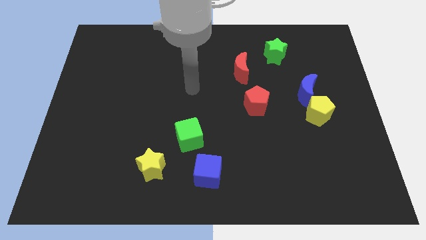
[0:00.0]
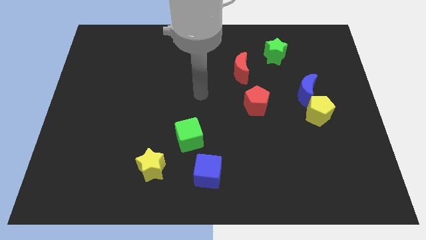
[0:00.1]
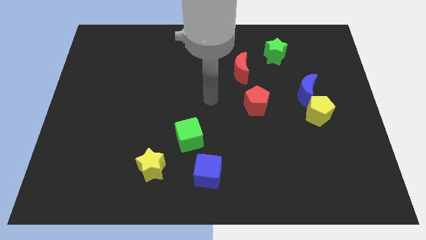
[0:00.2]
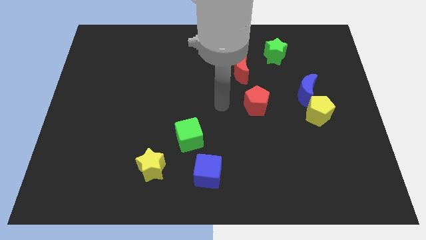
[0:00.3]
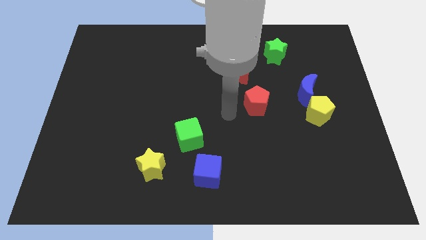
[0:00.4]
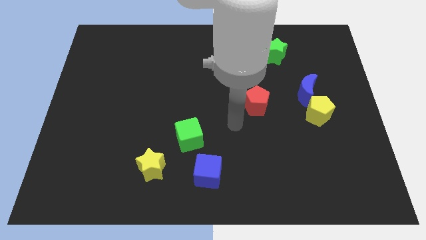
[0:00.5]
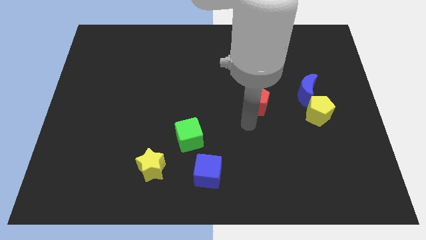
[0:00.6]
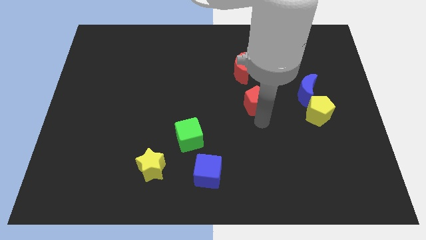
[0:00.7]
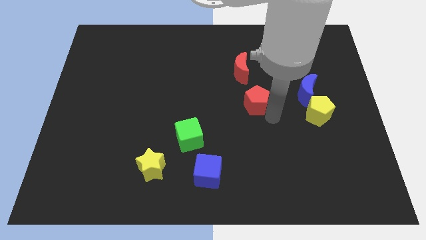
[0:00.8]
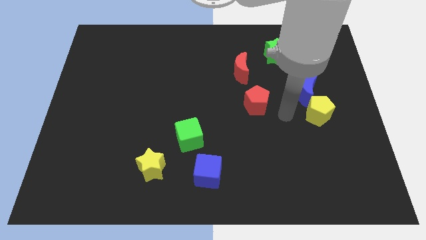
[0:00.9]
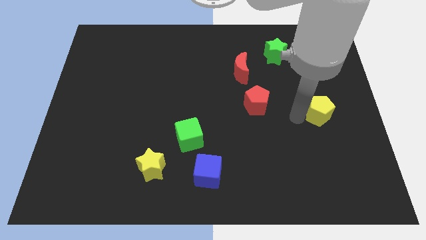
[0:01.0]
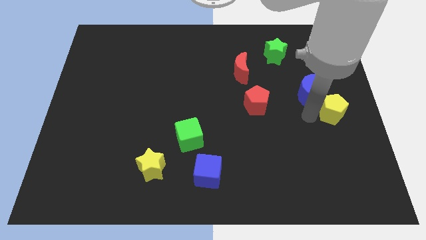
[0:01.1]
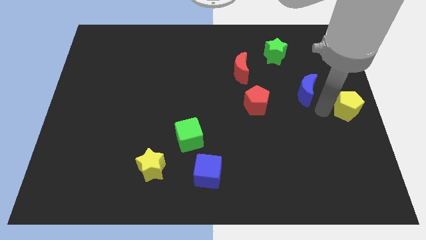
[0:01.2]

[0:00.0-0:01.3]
separate the blue moon from the yellow pentagon

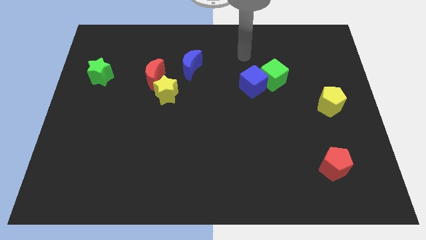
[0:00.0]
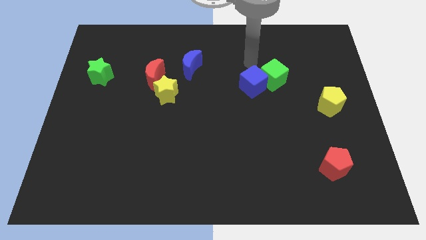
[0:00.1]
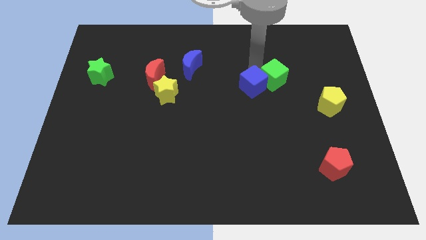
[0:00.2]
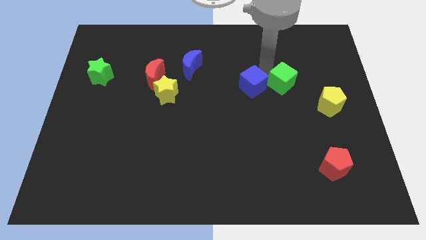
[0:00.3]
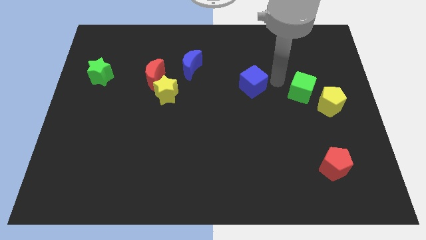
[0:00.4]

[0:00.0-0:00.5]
move the blue cube away from the green cube

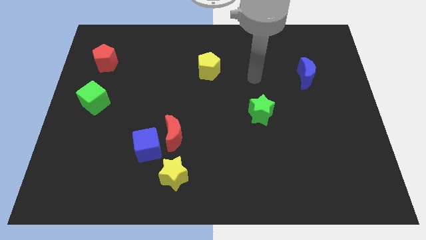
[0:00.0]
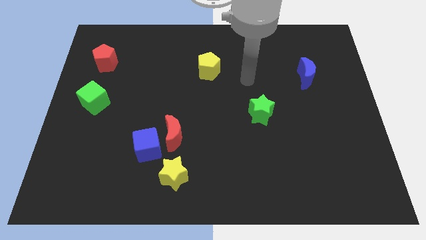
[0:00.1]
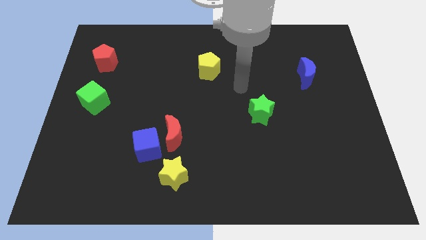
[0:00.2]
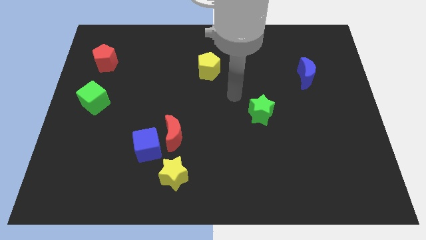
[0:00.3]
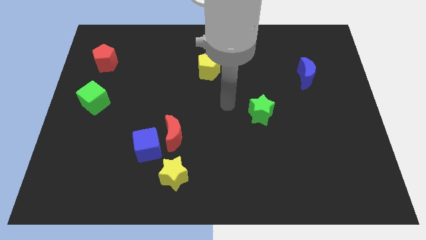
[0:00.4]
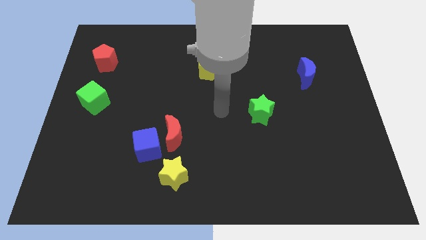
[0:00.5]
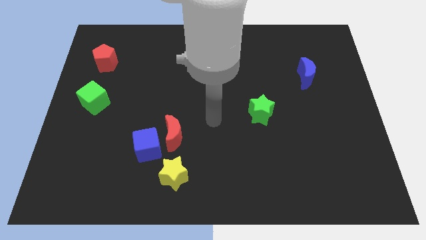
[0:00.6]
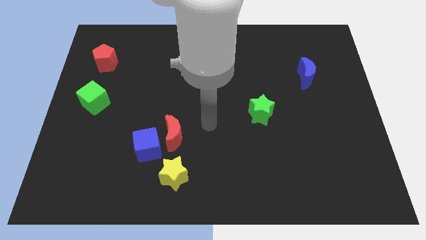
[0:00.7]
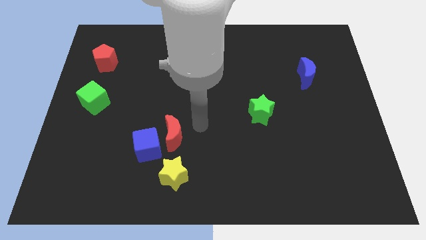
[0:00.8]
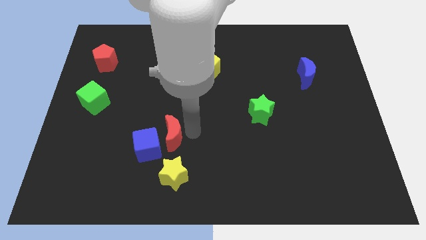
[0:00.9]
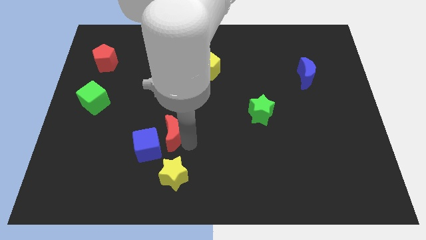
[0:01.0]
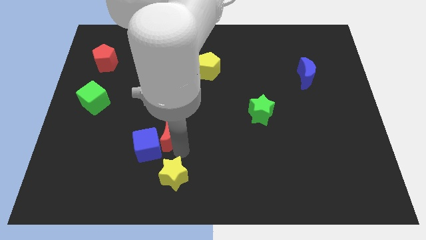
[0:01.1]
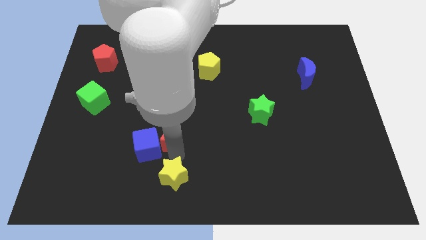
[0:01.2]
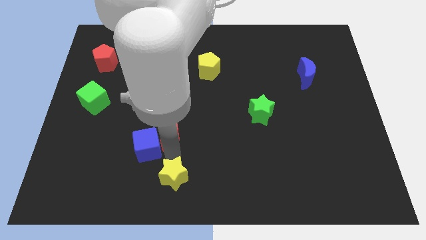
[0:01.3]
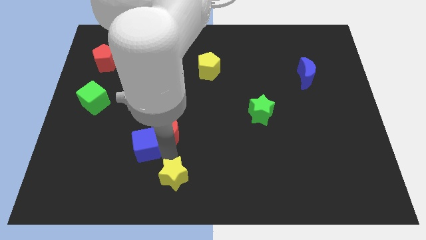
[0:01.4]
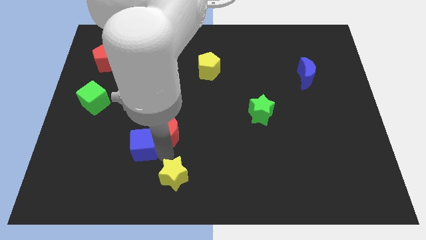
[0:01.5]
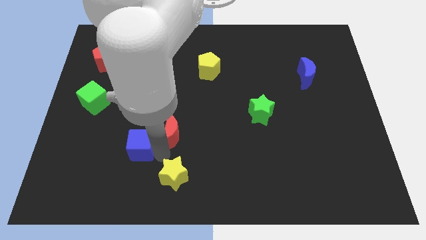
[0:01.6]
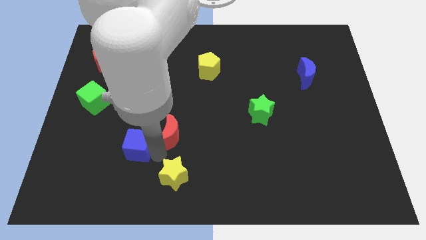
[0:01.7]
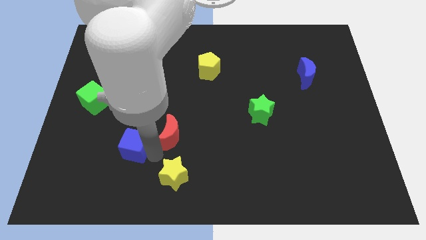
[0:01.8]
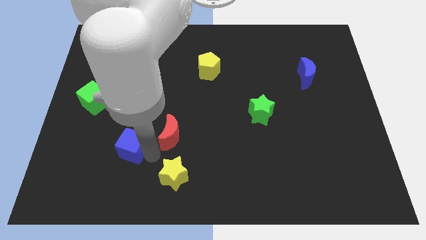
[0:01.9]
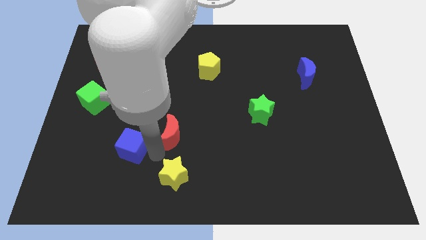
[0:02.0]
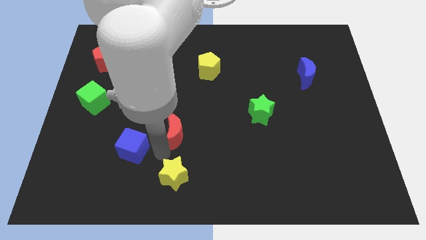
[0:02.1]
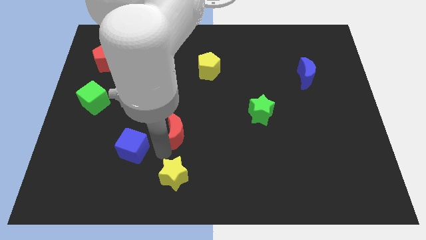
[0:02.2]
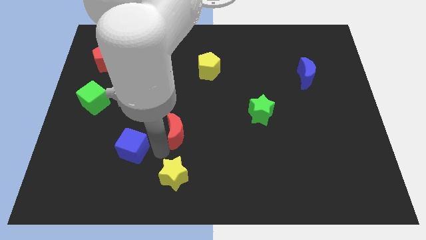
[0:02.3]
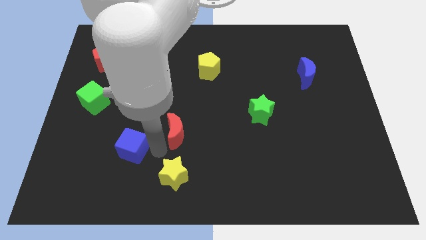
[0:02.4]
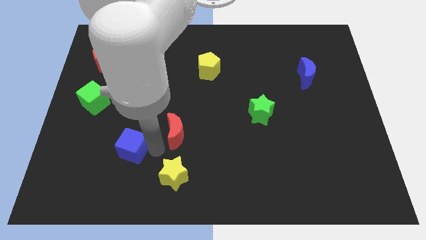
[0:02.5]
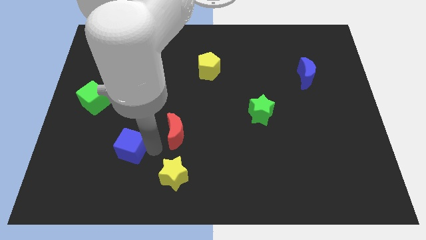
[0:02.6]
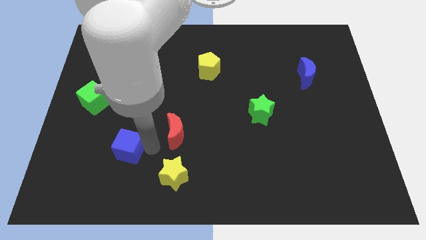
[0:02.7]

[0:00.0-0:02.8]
separate the blue cube from the red moon and yellow star

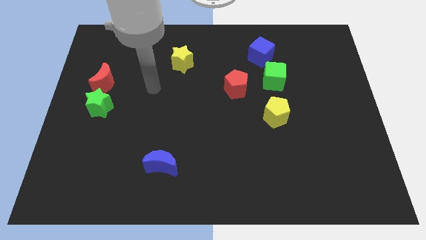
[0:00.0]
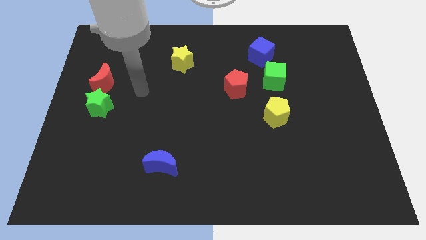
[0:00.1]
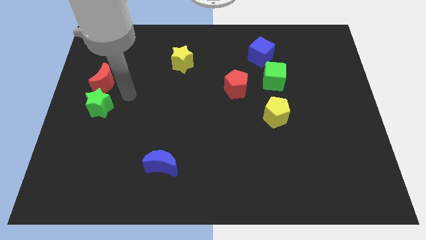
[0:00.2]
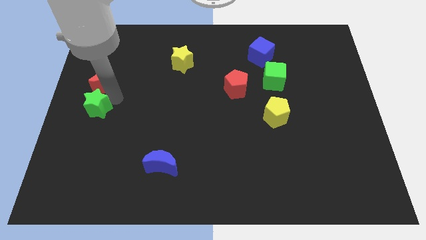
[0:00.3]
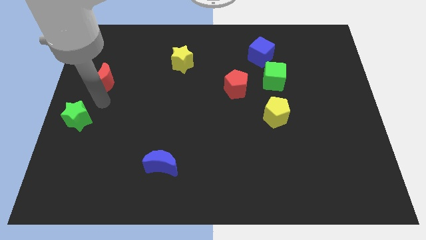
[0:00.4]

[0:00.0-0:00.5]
separate the red moon from the green star

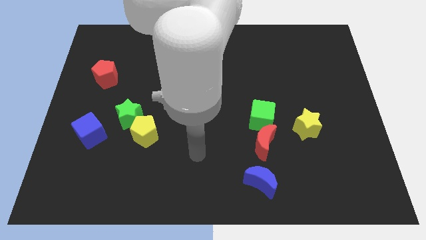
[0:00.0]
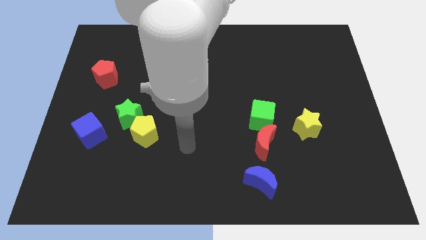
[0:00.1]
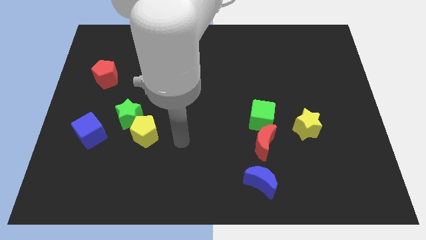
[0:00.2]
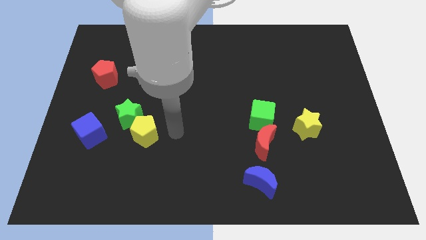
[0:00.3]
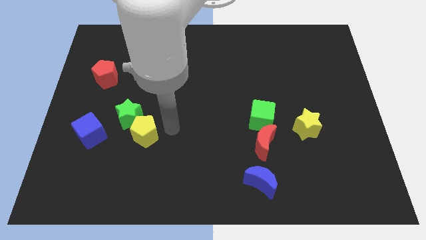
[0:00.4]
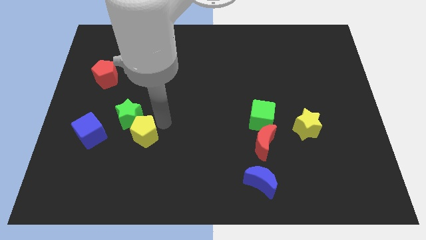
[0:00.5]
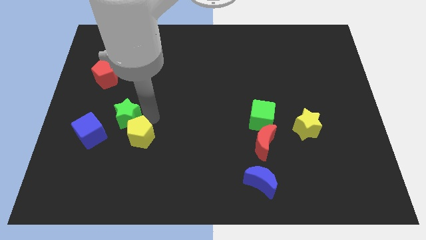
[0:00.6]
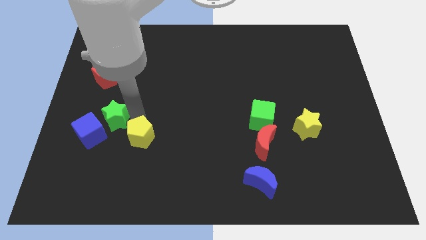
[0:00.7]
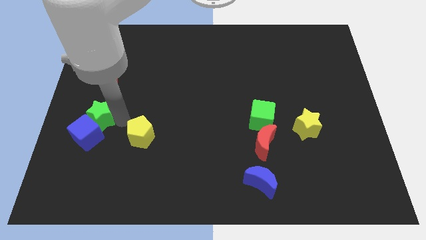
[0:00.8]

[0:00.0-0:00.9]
separate the yellow pentagon from the green star

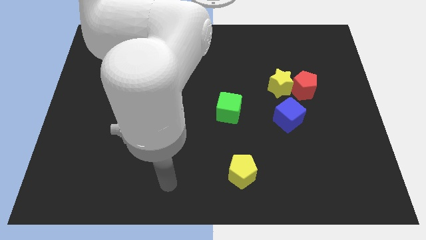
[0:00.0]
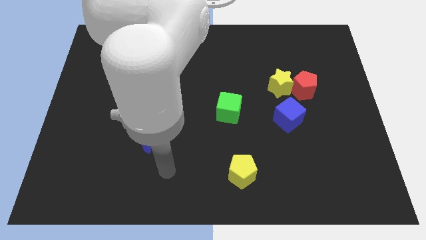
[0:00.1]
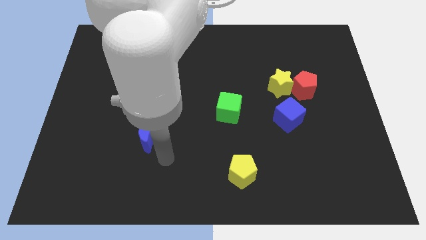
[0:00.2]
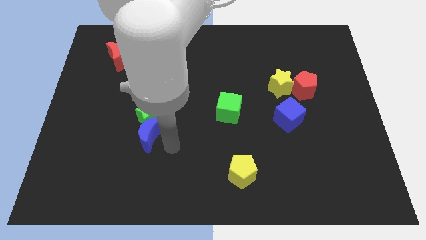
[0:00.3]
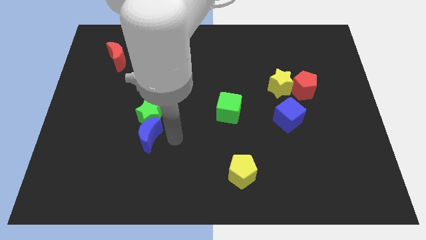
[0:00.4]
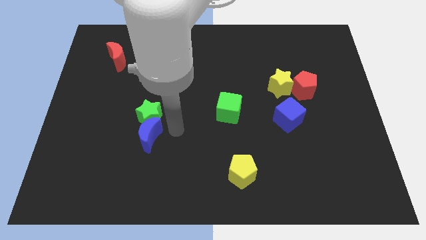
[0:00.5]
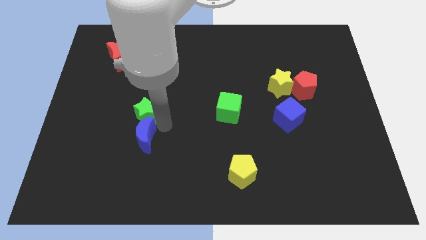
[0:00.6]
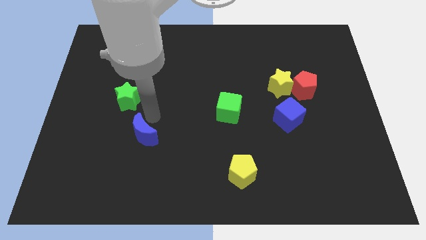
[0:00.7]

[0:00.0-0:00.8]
separate the blue moon from the green star

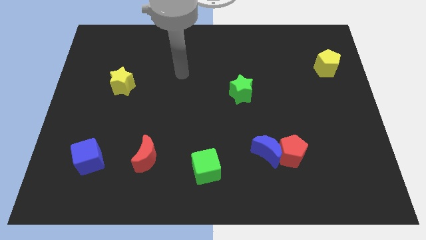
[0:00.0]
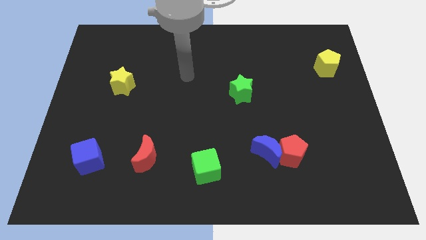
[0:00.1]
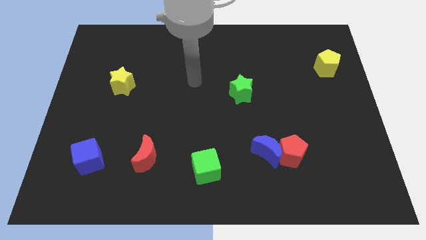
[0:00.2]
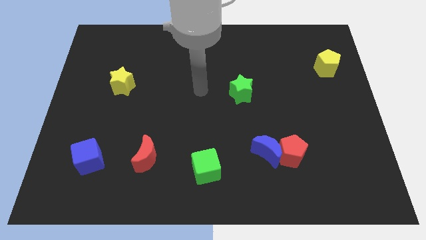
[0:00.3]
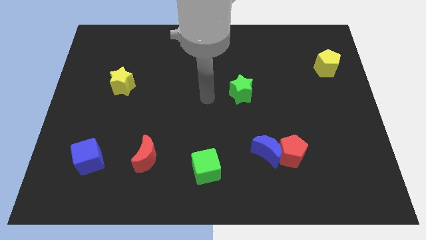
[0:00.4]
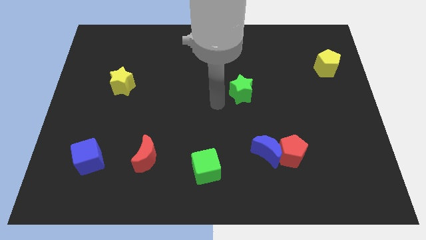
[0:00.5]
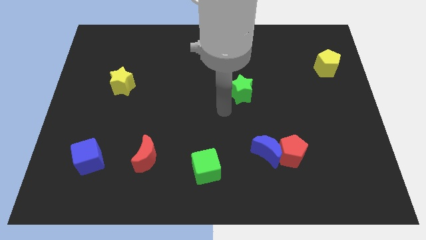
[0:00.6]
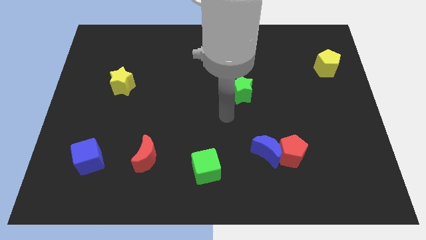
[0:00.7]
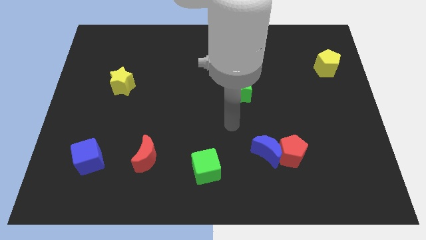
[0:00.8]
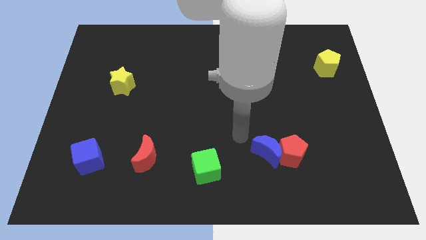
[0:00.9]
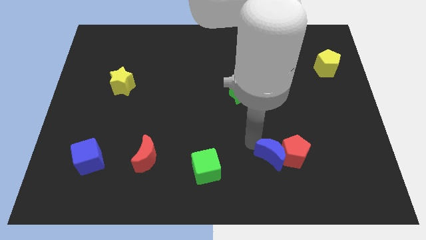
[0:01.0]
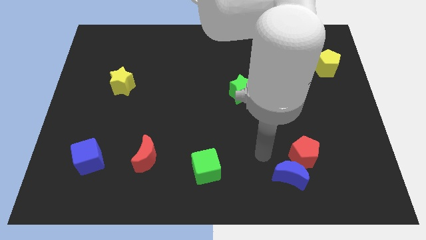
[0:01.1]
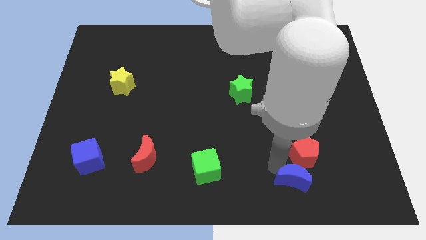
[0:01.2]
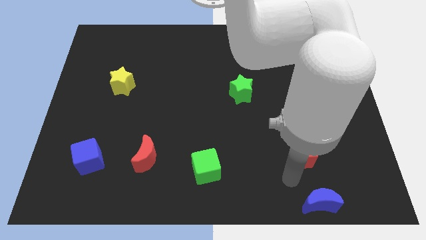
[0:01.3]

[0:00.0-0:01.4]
separate the red pentagon from the blue moon

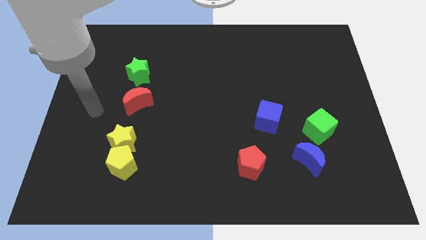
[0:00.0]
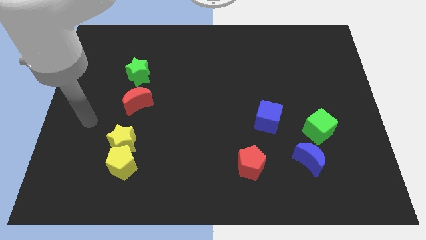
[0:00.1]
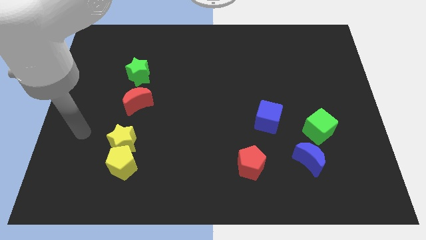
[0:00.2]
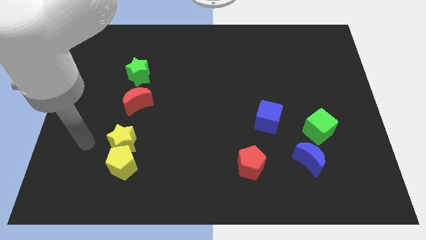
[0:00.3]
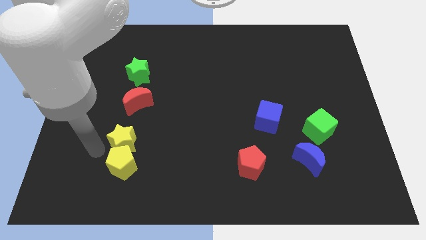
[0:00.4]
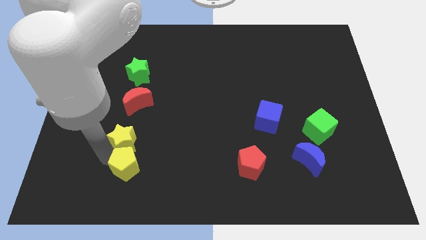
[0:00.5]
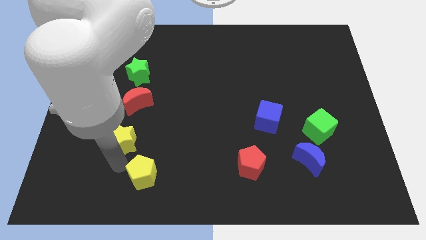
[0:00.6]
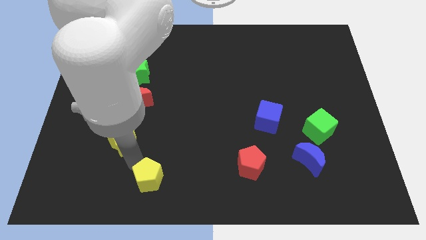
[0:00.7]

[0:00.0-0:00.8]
pull the yellow star apart from the yellow pentagon
